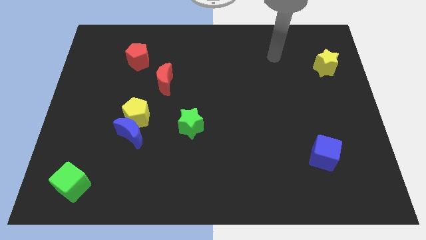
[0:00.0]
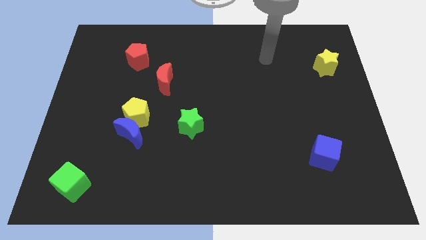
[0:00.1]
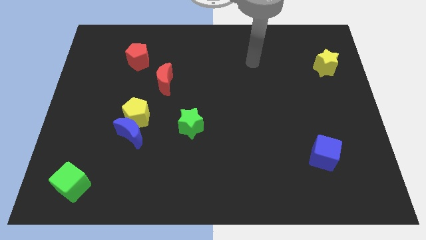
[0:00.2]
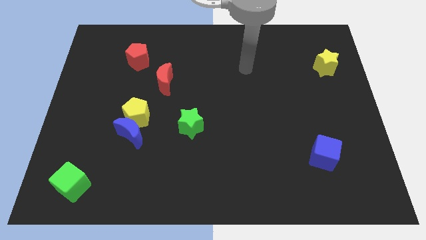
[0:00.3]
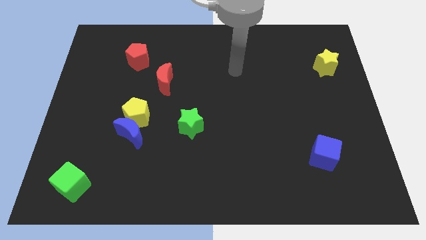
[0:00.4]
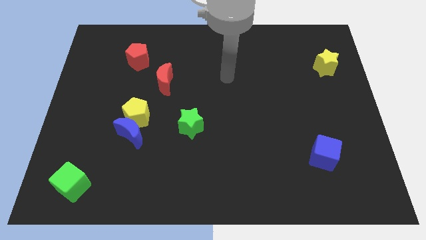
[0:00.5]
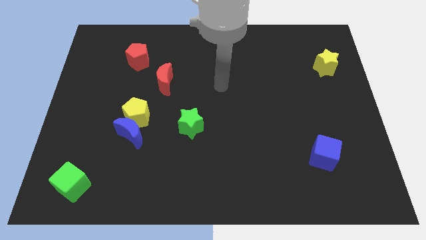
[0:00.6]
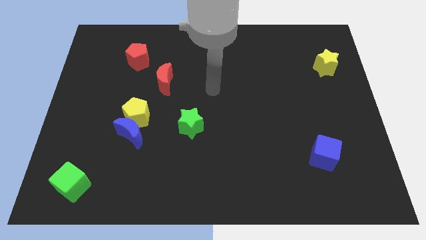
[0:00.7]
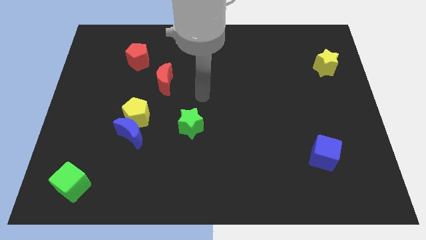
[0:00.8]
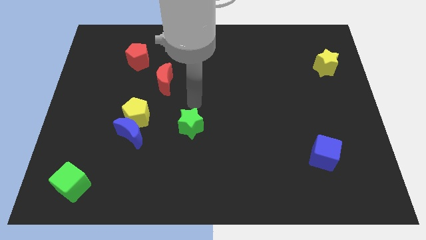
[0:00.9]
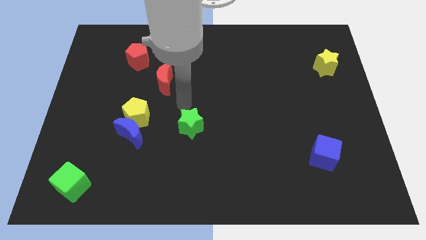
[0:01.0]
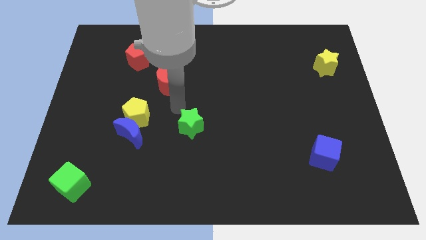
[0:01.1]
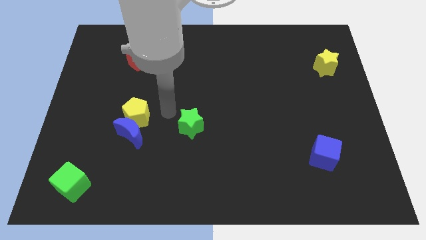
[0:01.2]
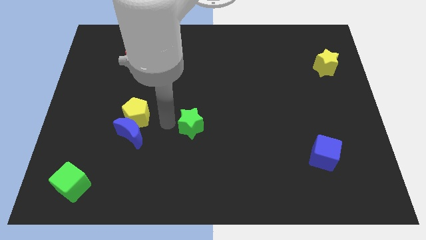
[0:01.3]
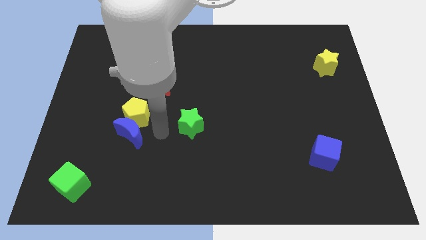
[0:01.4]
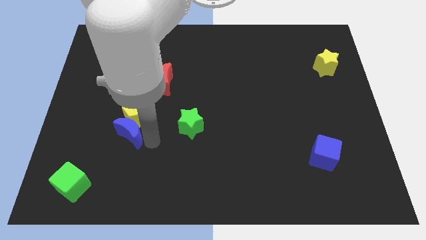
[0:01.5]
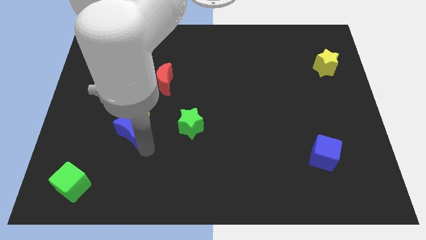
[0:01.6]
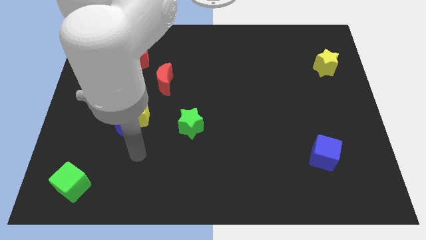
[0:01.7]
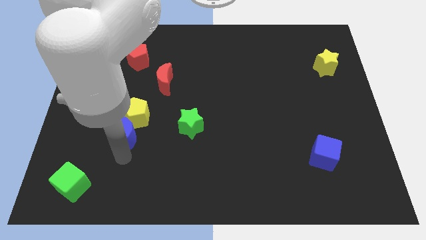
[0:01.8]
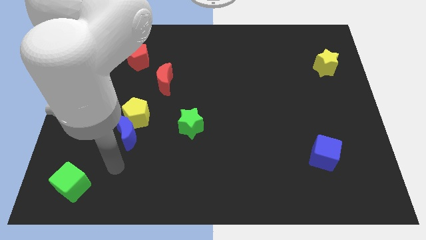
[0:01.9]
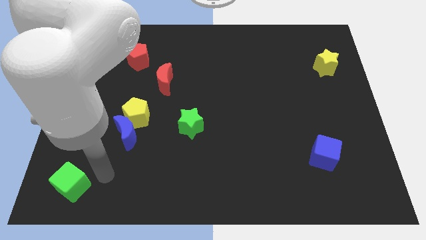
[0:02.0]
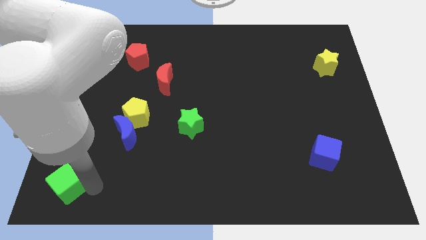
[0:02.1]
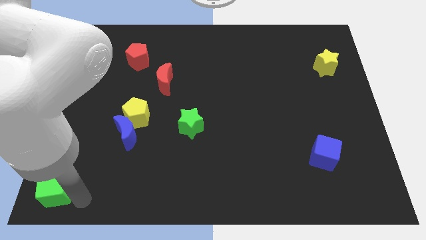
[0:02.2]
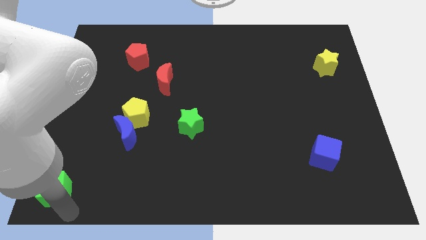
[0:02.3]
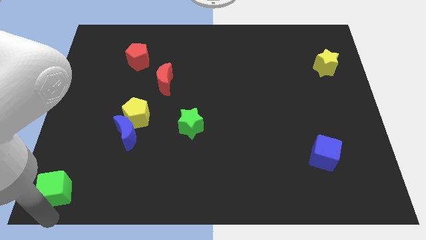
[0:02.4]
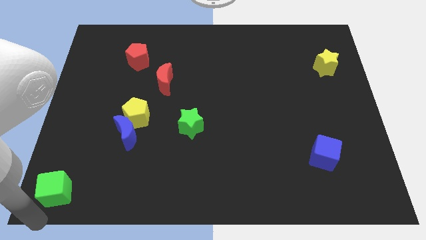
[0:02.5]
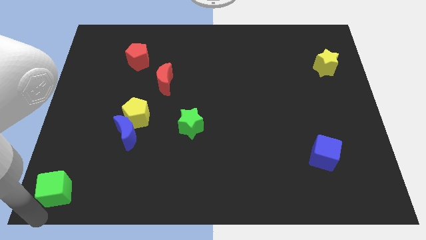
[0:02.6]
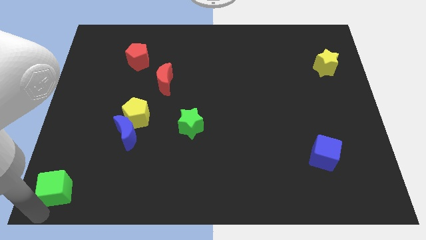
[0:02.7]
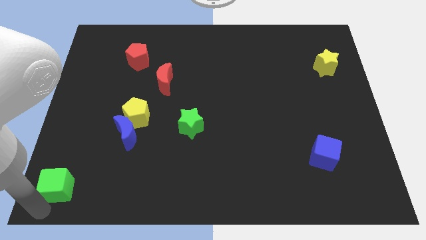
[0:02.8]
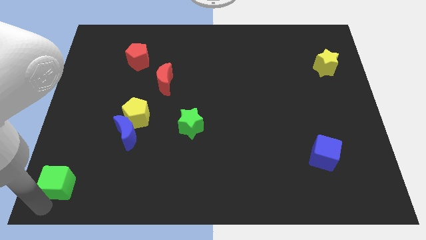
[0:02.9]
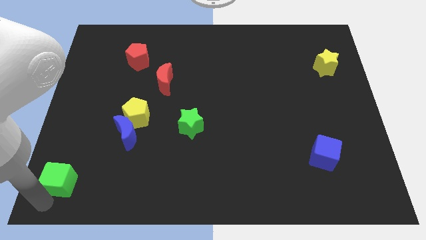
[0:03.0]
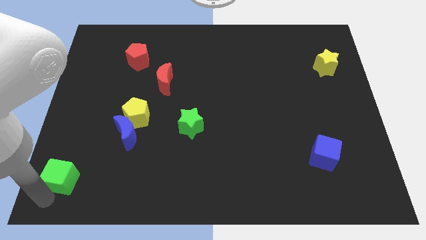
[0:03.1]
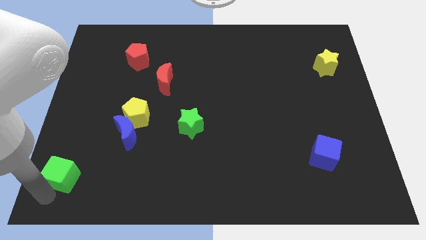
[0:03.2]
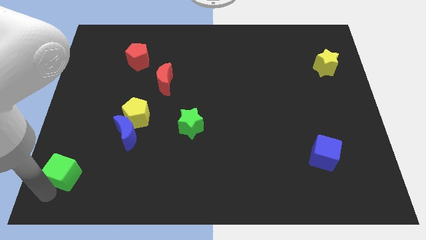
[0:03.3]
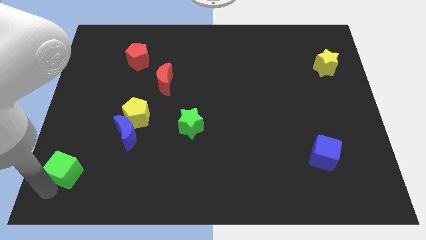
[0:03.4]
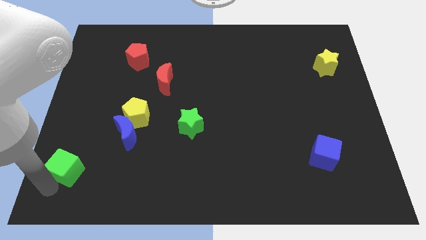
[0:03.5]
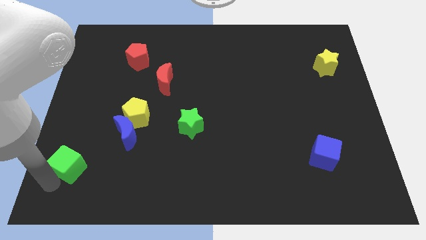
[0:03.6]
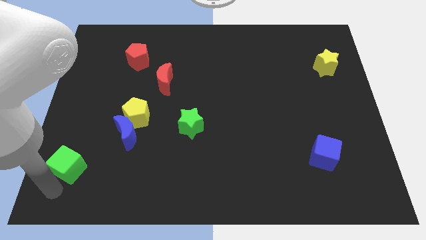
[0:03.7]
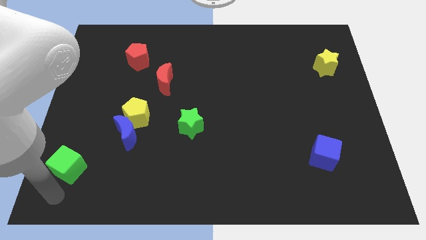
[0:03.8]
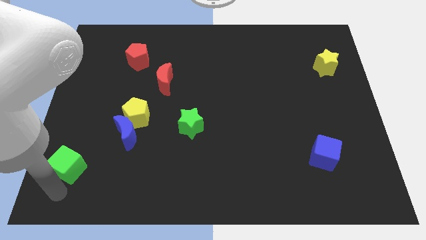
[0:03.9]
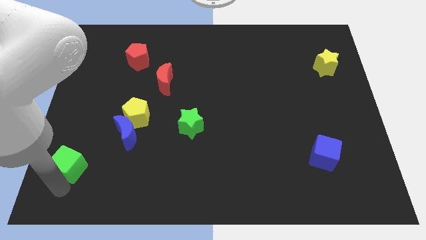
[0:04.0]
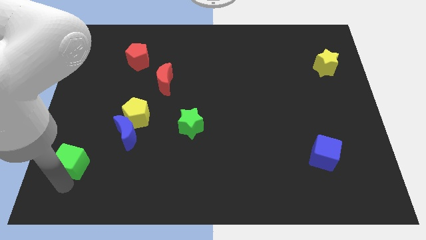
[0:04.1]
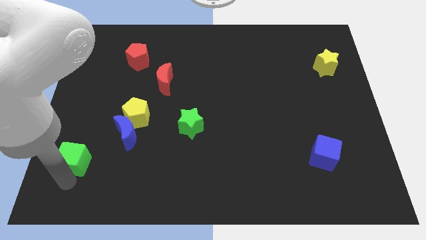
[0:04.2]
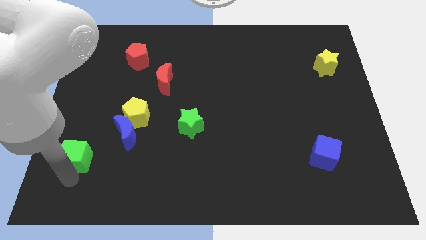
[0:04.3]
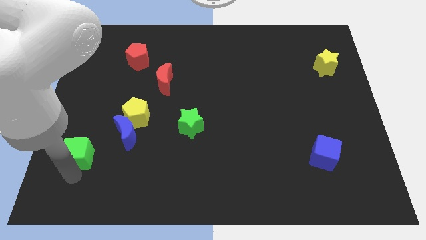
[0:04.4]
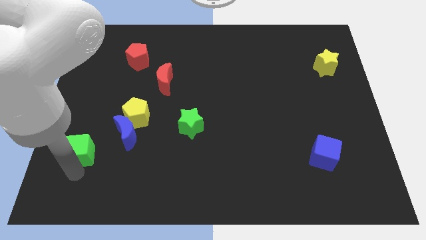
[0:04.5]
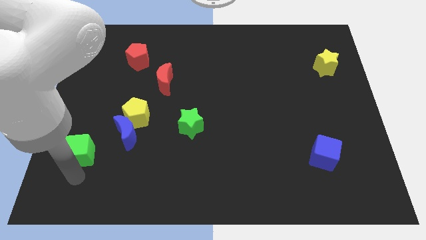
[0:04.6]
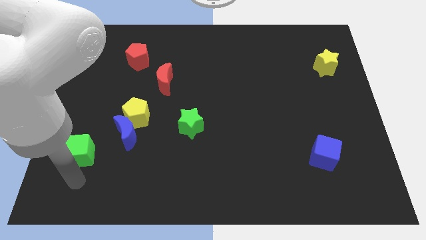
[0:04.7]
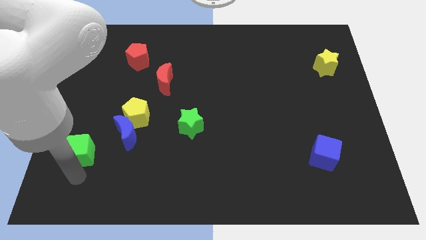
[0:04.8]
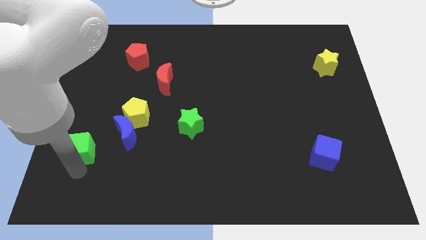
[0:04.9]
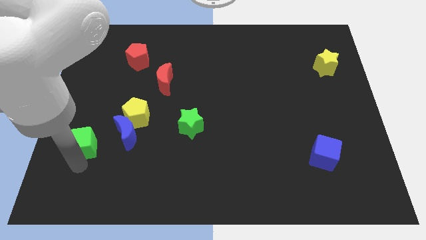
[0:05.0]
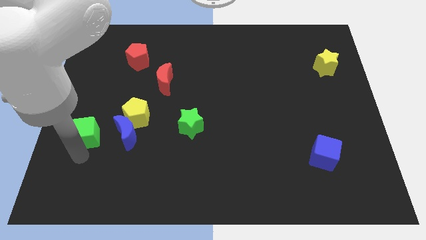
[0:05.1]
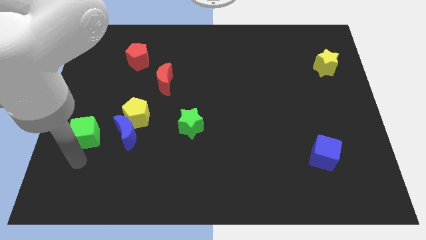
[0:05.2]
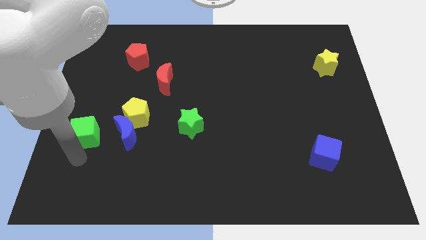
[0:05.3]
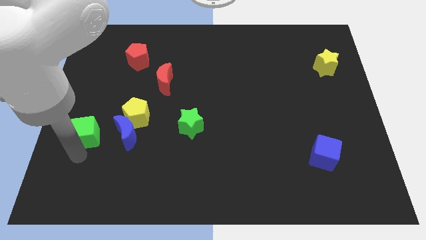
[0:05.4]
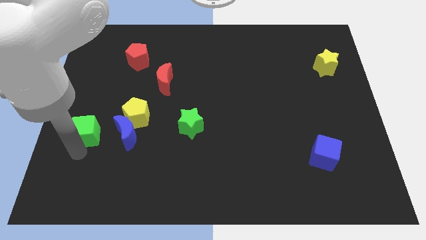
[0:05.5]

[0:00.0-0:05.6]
put the green cube to the left of the yellow pentagon

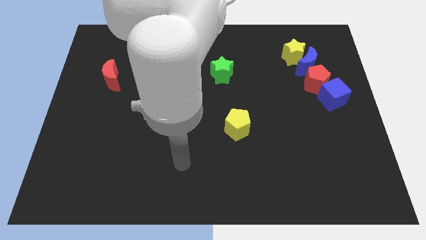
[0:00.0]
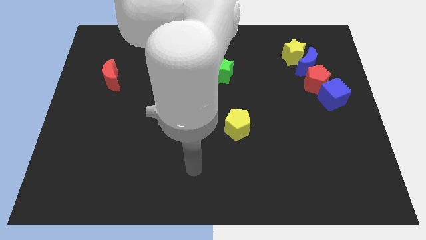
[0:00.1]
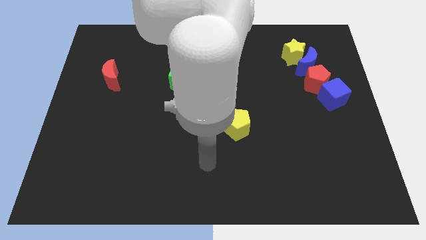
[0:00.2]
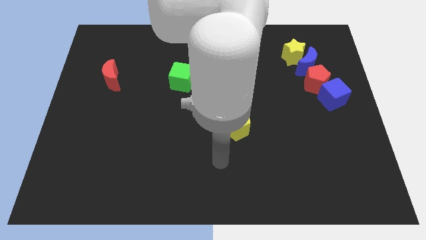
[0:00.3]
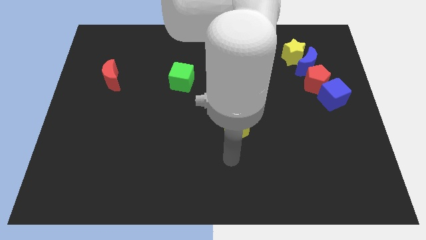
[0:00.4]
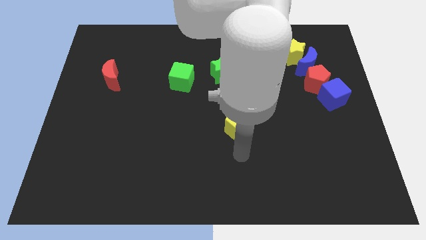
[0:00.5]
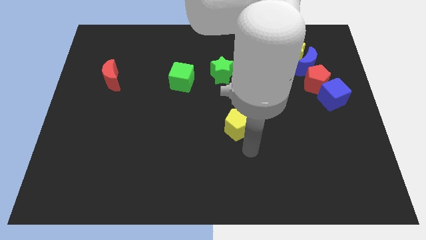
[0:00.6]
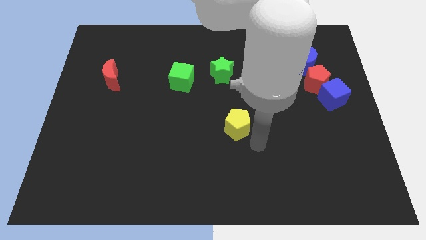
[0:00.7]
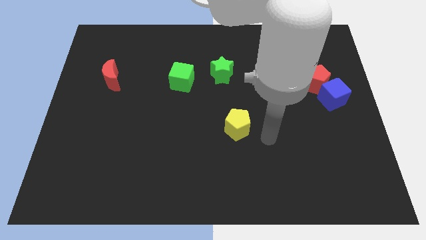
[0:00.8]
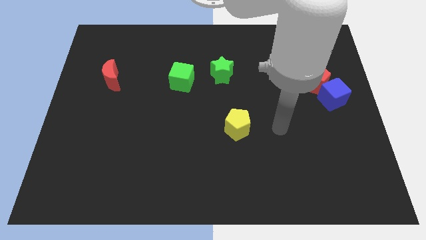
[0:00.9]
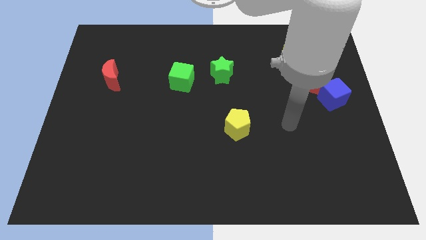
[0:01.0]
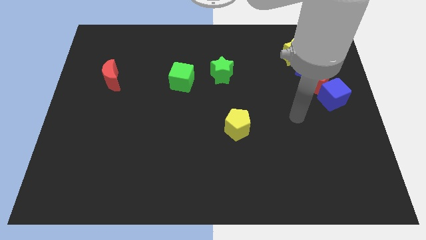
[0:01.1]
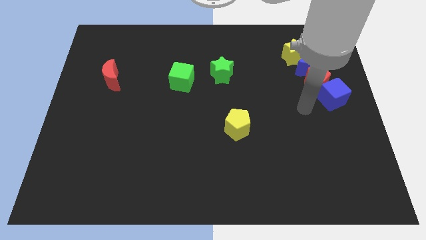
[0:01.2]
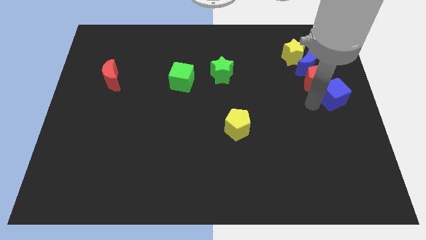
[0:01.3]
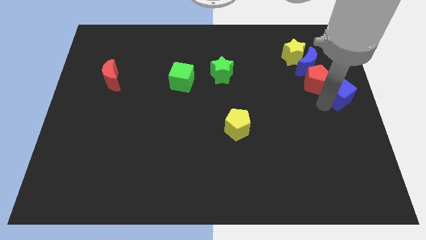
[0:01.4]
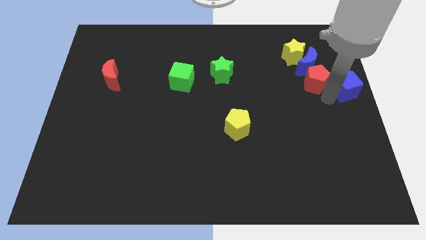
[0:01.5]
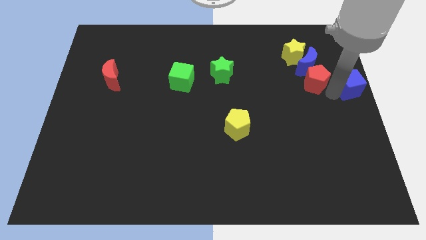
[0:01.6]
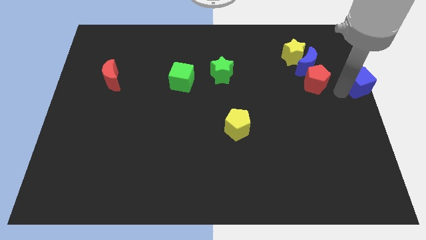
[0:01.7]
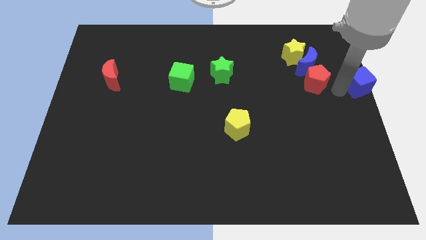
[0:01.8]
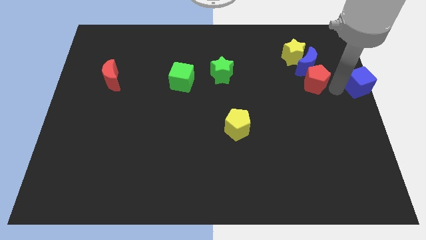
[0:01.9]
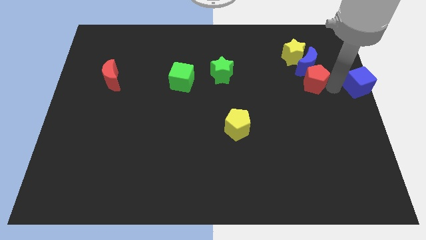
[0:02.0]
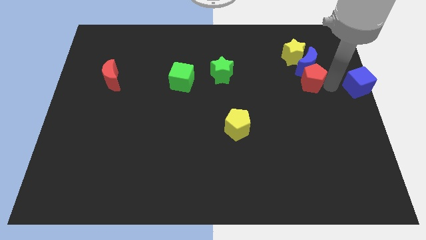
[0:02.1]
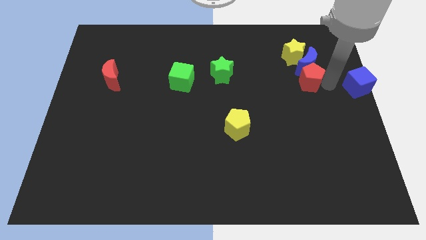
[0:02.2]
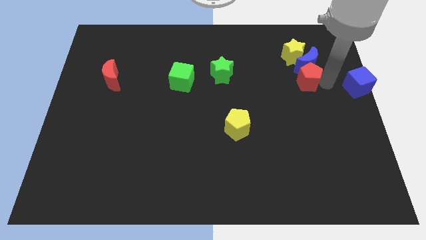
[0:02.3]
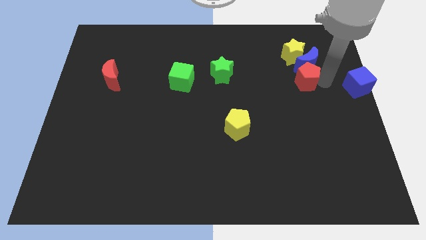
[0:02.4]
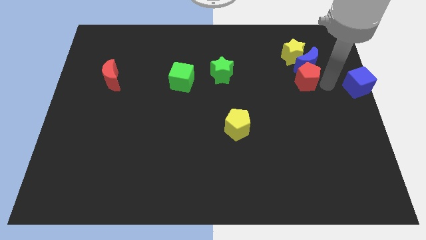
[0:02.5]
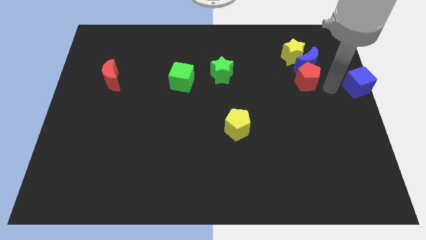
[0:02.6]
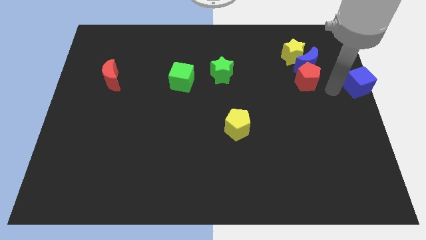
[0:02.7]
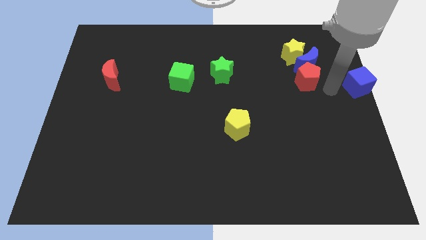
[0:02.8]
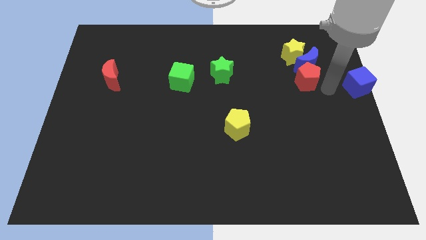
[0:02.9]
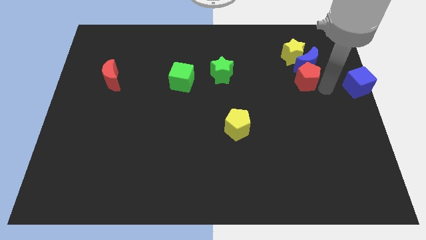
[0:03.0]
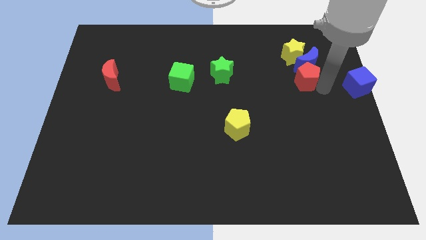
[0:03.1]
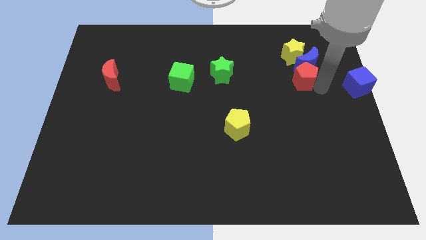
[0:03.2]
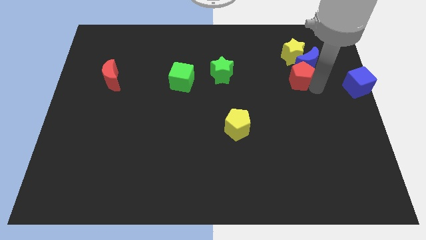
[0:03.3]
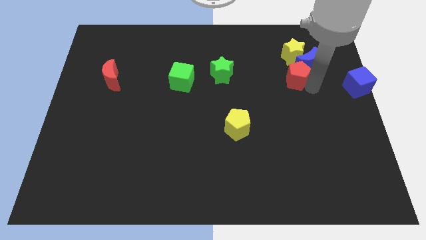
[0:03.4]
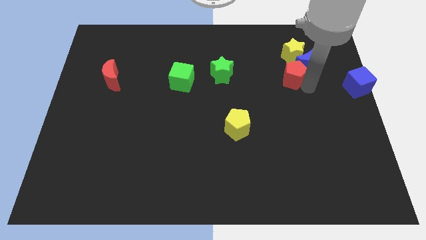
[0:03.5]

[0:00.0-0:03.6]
put the red pentagon just left of the blue moon
